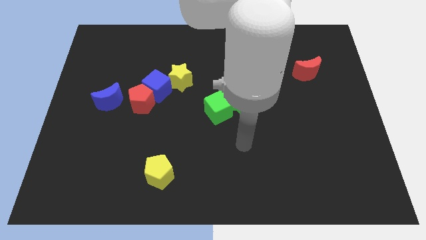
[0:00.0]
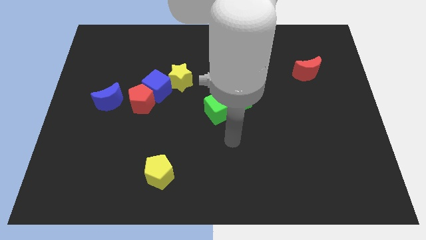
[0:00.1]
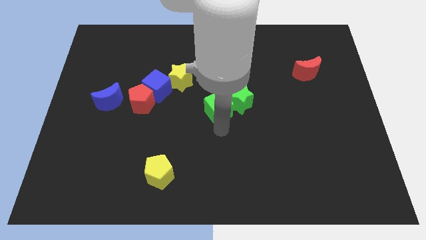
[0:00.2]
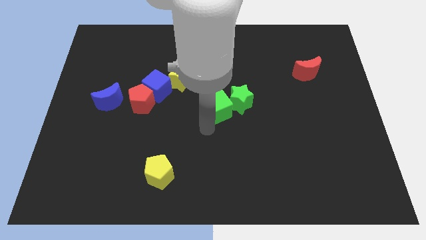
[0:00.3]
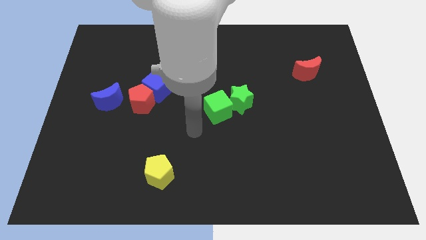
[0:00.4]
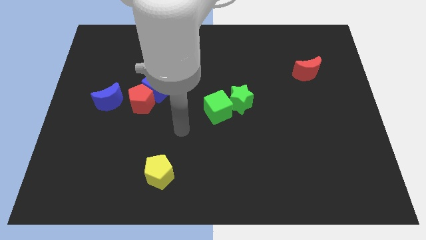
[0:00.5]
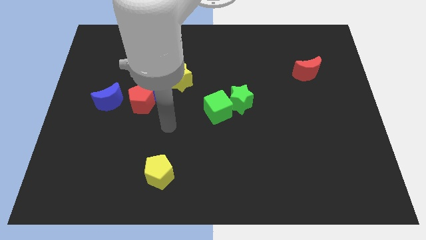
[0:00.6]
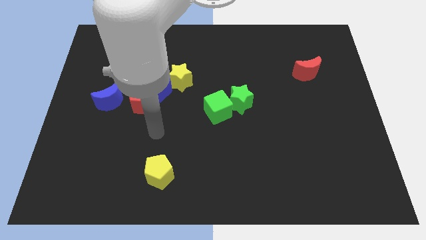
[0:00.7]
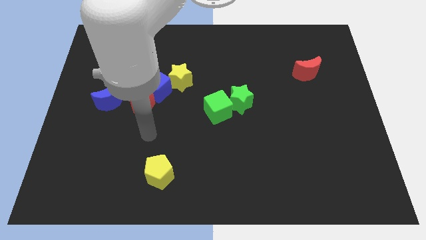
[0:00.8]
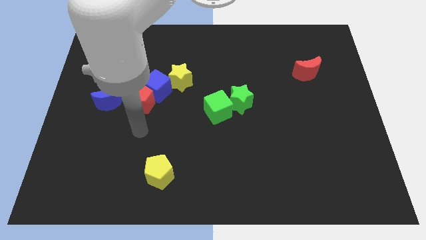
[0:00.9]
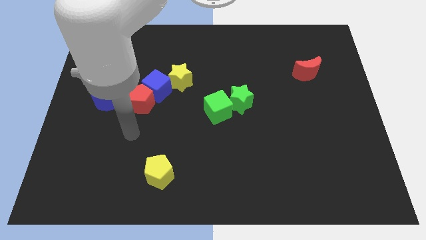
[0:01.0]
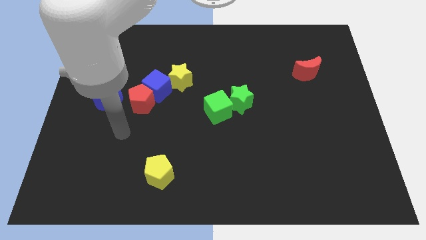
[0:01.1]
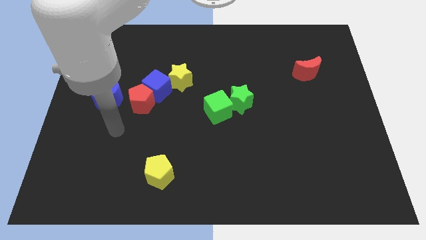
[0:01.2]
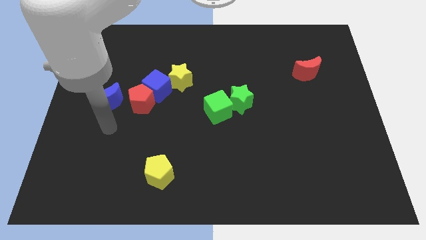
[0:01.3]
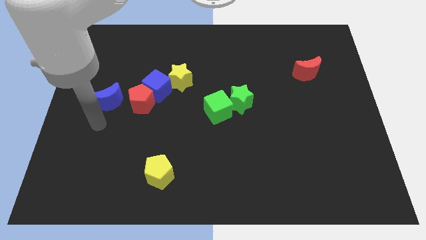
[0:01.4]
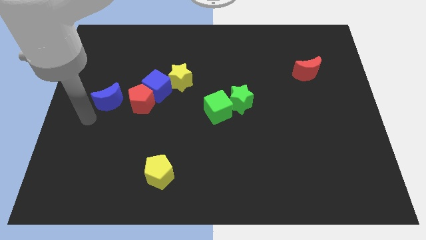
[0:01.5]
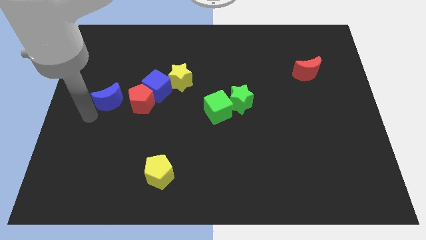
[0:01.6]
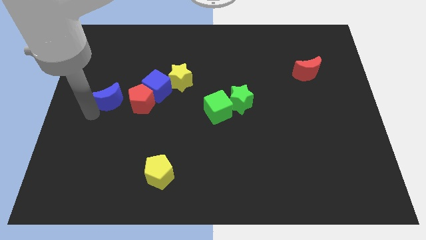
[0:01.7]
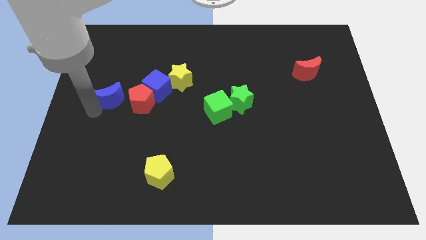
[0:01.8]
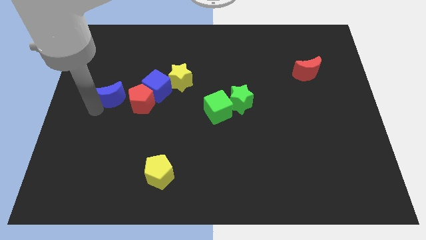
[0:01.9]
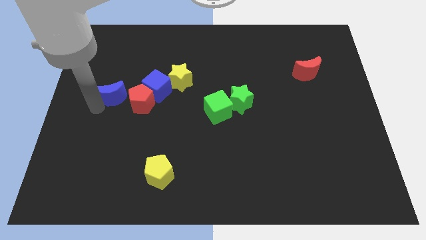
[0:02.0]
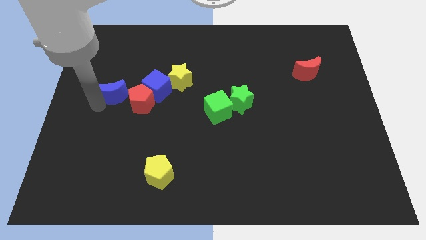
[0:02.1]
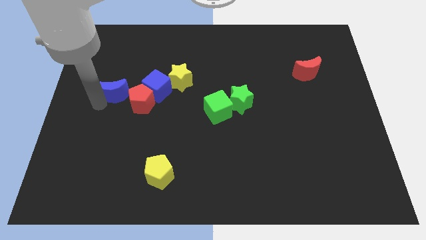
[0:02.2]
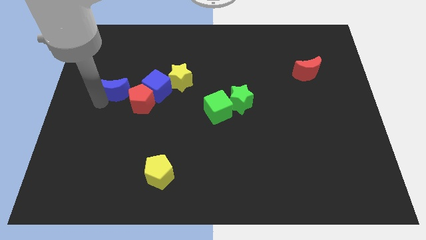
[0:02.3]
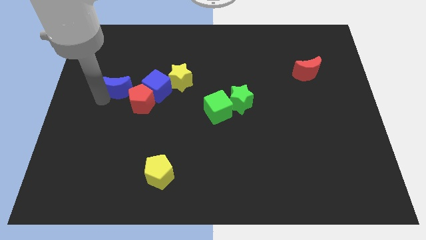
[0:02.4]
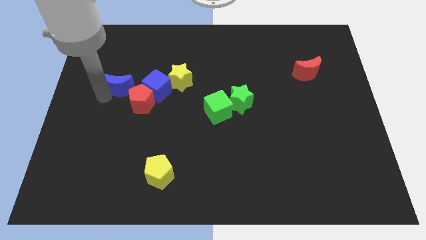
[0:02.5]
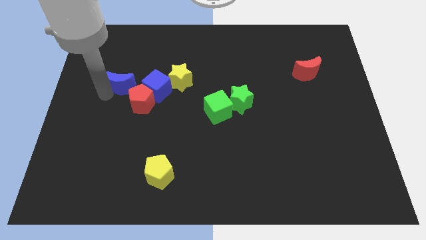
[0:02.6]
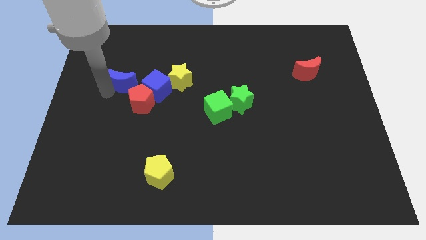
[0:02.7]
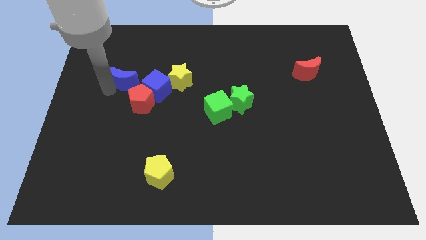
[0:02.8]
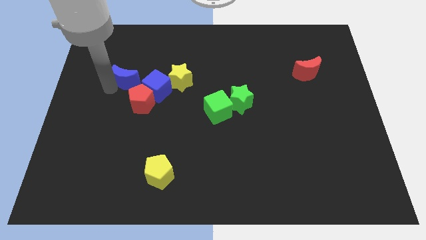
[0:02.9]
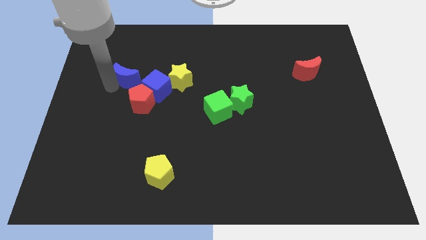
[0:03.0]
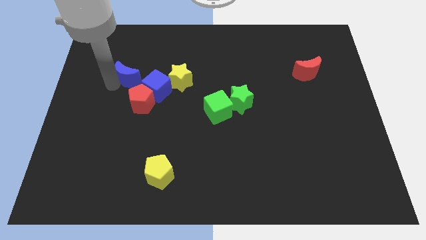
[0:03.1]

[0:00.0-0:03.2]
move the blue moon diagonally upwards and to the right slightly

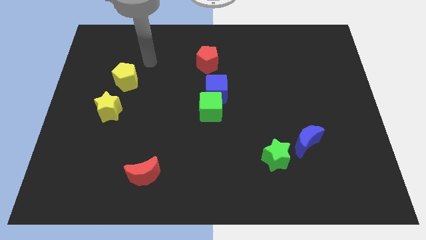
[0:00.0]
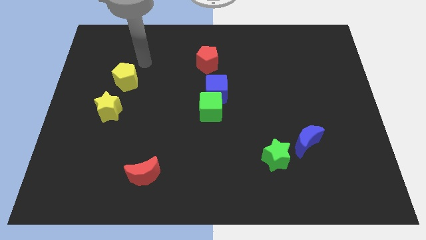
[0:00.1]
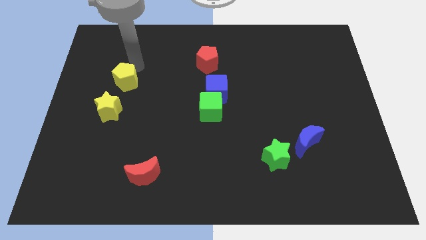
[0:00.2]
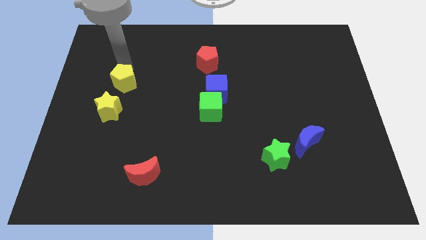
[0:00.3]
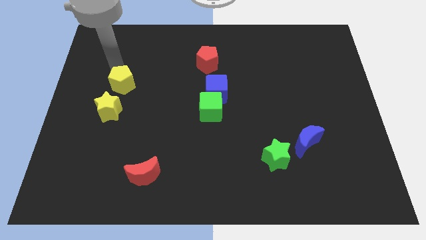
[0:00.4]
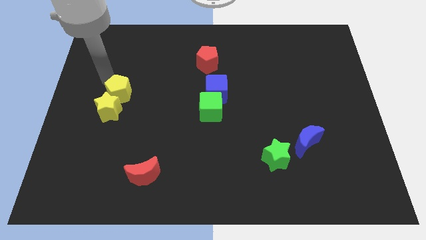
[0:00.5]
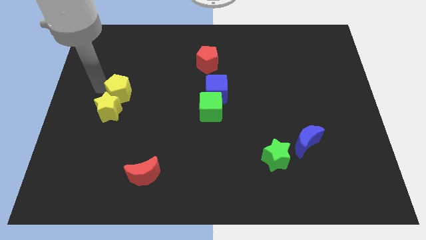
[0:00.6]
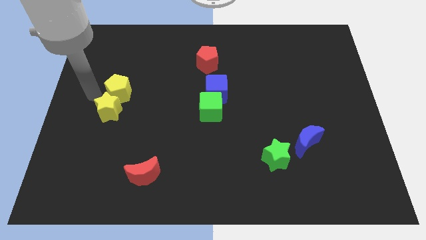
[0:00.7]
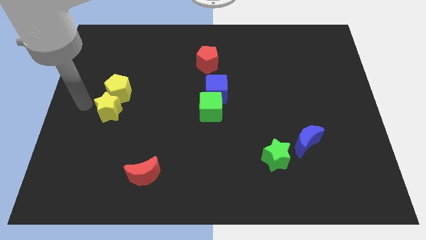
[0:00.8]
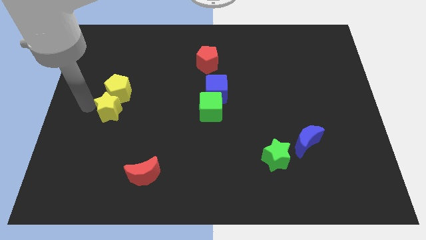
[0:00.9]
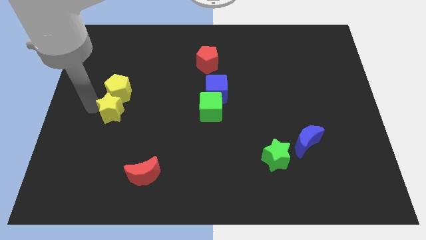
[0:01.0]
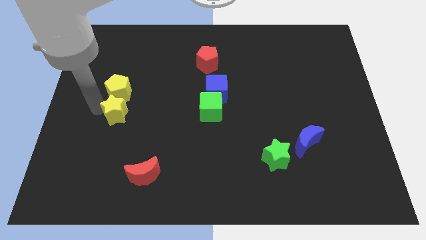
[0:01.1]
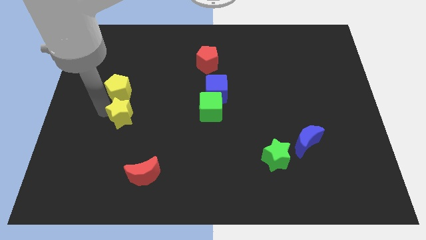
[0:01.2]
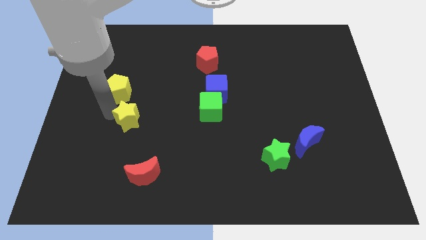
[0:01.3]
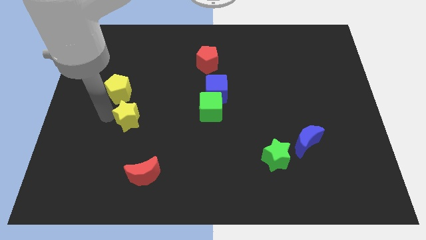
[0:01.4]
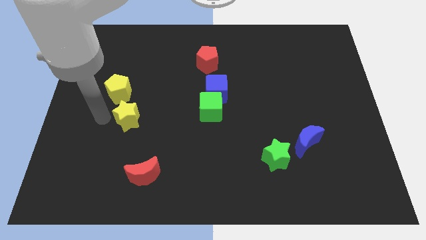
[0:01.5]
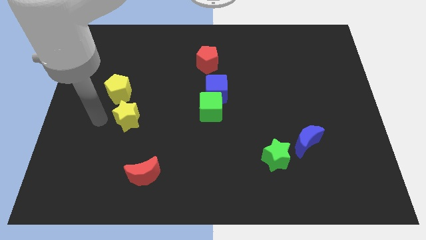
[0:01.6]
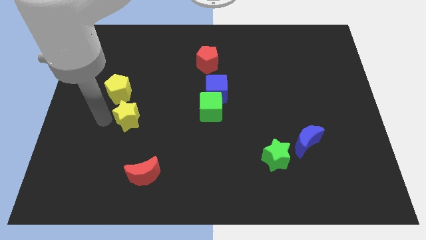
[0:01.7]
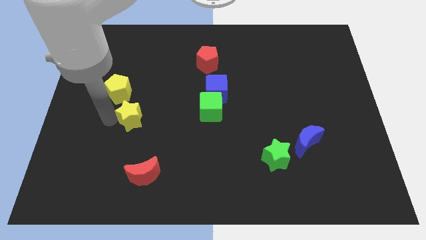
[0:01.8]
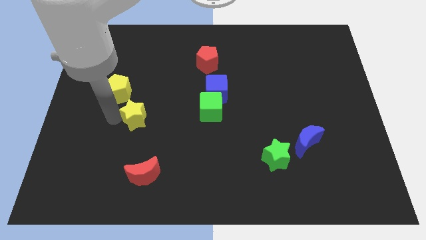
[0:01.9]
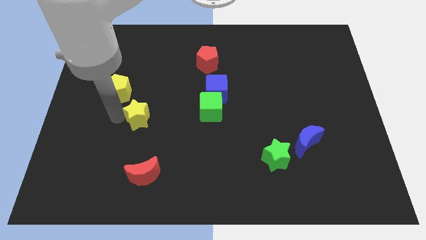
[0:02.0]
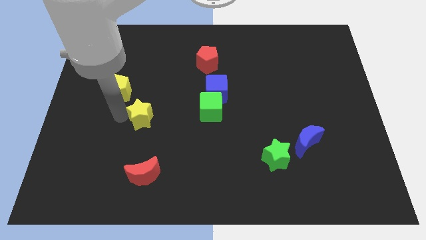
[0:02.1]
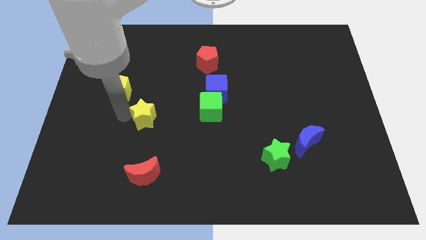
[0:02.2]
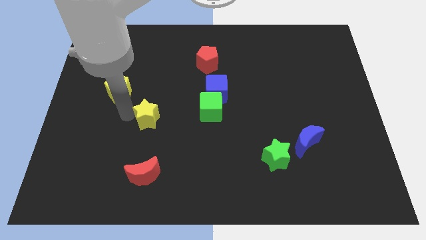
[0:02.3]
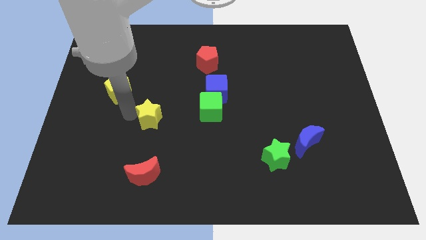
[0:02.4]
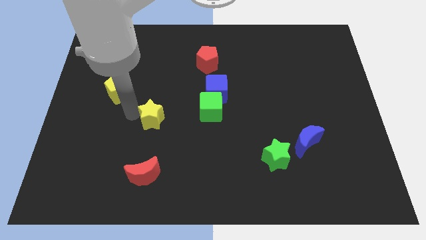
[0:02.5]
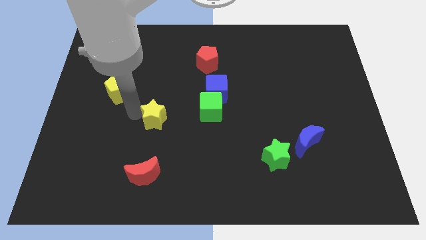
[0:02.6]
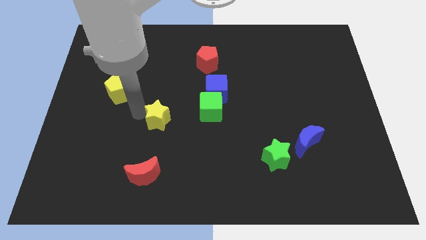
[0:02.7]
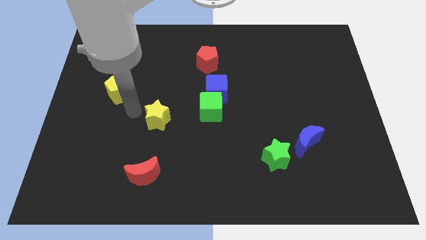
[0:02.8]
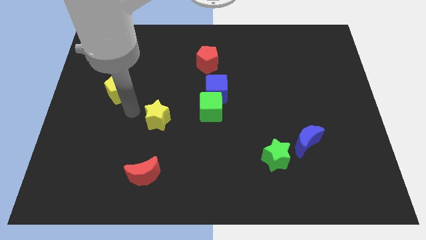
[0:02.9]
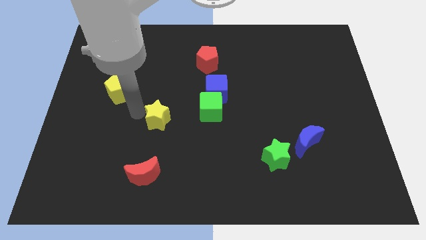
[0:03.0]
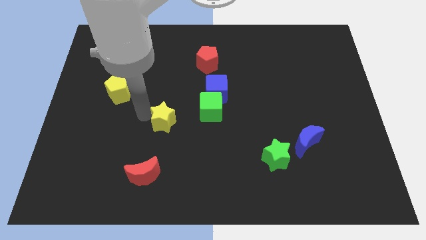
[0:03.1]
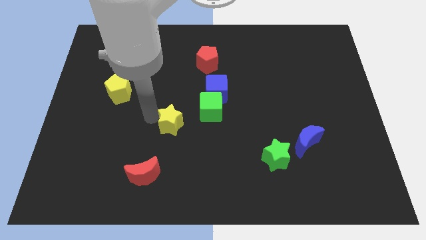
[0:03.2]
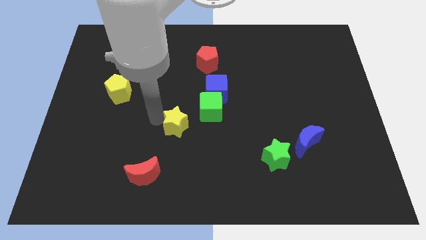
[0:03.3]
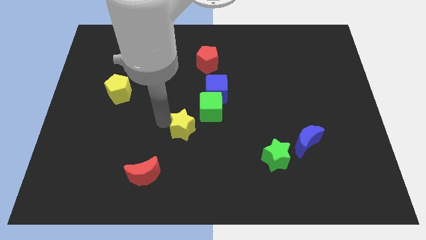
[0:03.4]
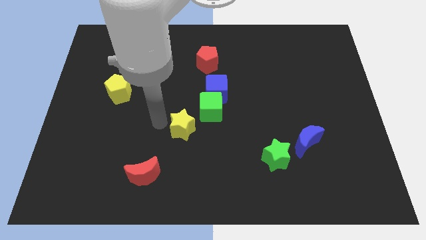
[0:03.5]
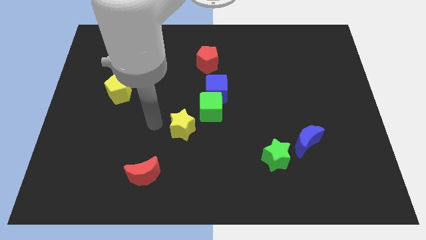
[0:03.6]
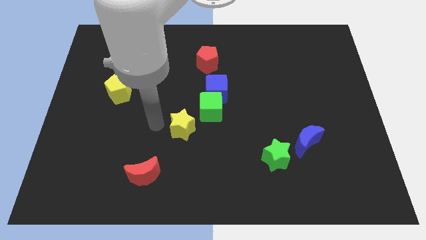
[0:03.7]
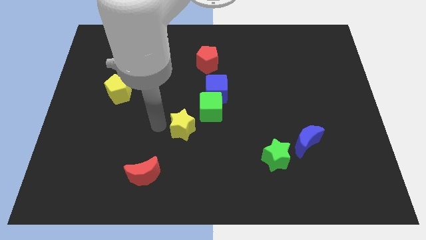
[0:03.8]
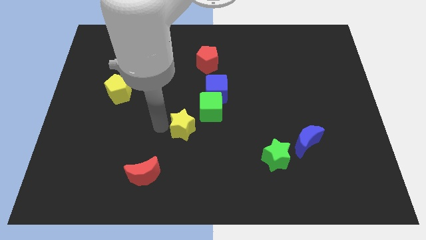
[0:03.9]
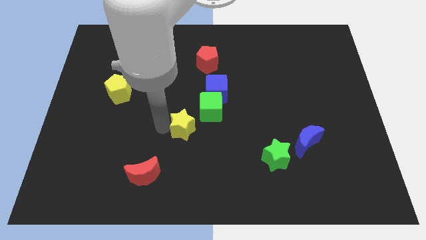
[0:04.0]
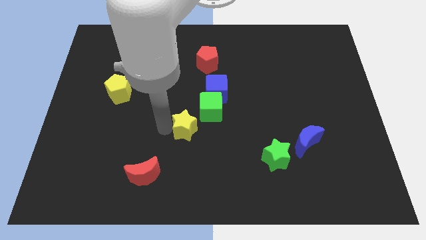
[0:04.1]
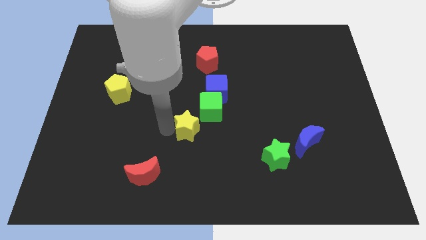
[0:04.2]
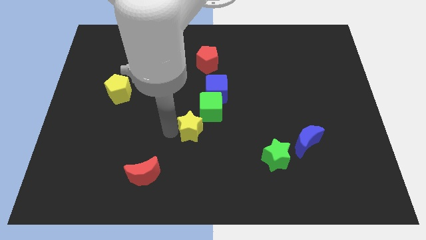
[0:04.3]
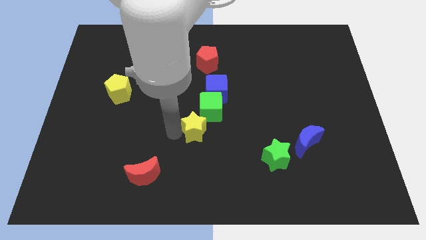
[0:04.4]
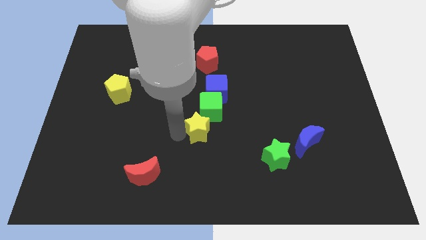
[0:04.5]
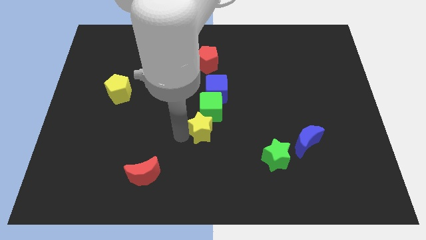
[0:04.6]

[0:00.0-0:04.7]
slide the yellow star right

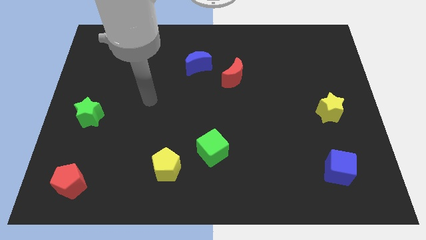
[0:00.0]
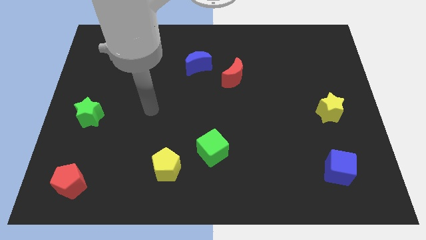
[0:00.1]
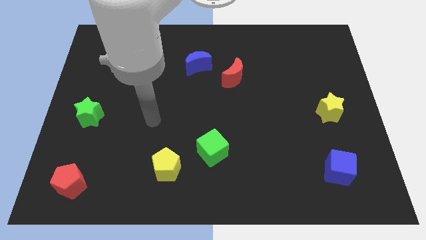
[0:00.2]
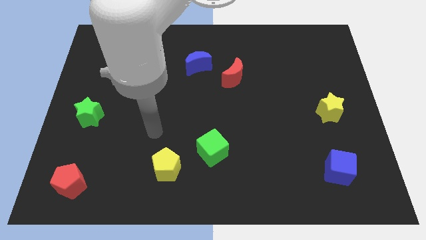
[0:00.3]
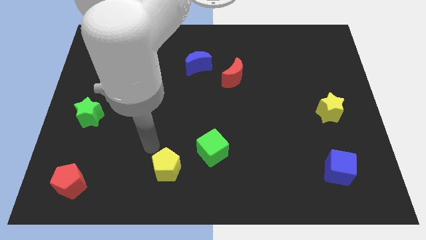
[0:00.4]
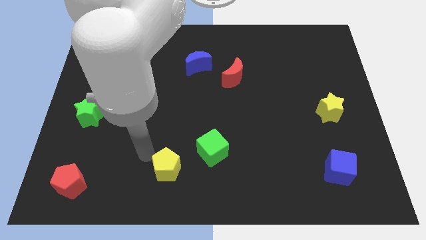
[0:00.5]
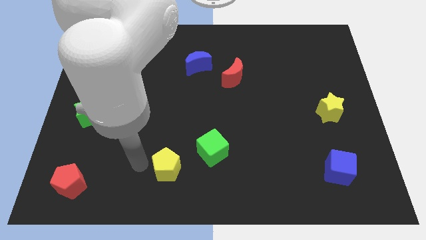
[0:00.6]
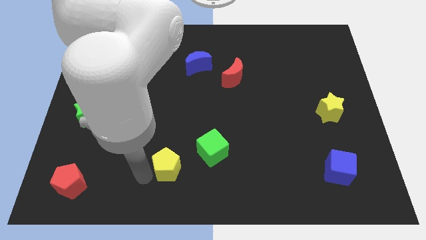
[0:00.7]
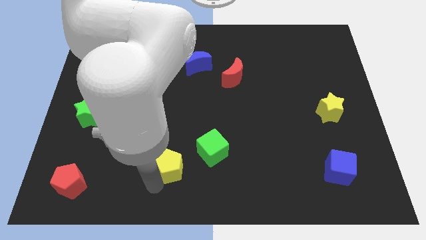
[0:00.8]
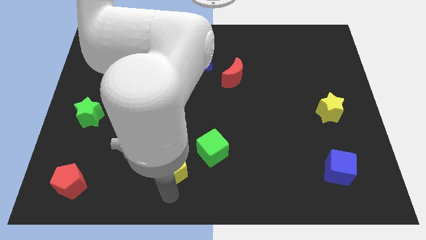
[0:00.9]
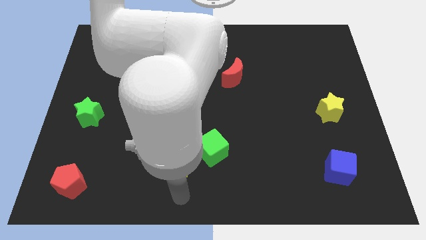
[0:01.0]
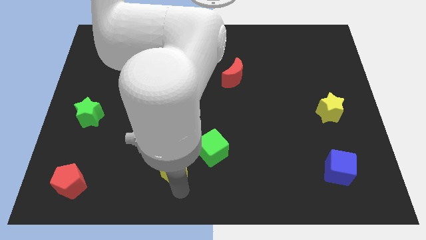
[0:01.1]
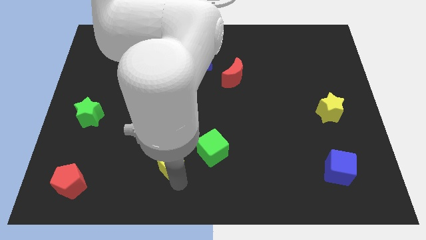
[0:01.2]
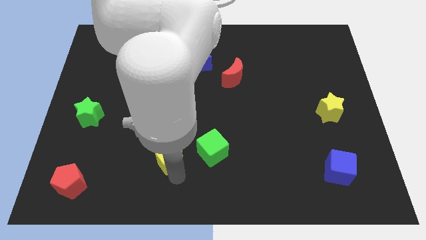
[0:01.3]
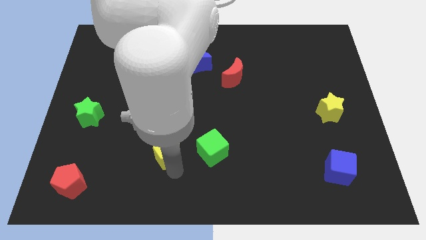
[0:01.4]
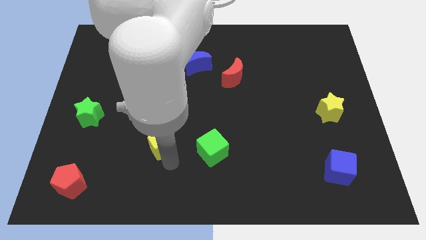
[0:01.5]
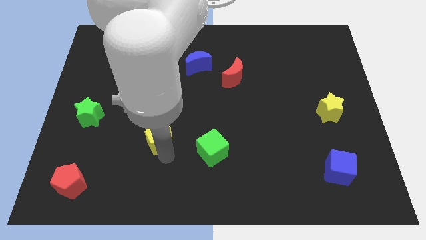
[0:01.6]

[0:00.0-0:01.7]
slightly push the yellow pentagon up
